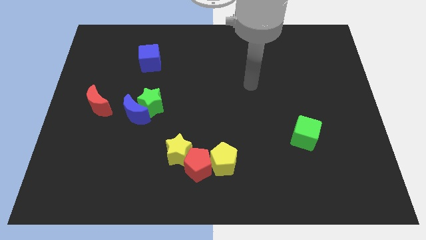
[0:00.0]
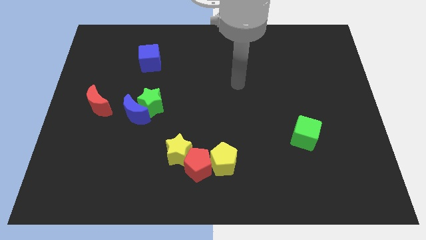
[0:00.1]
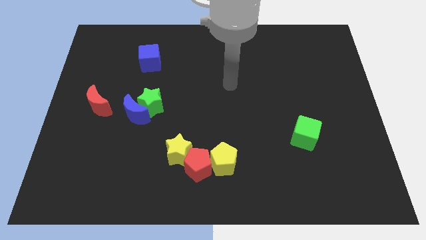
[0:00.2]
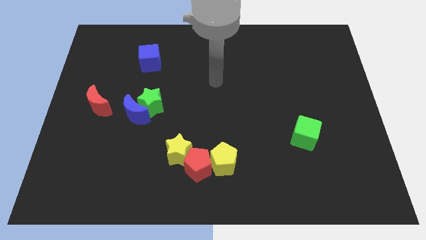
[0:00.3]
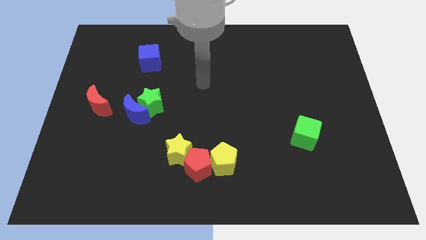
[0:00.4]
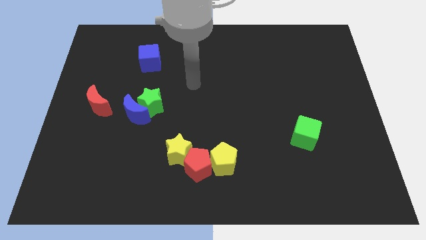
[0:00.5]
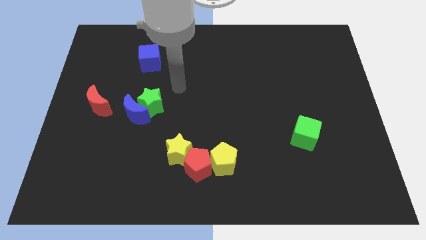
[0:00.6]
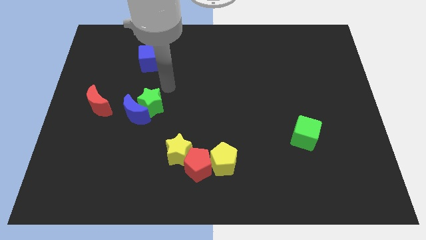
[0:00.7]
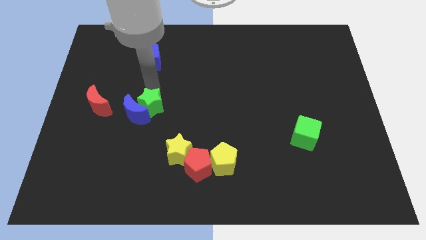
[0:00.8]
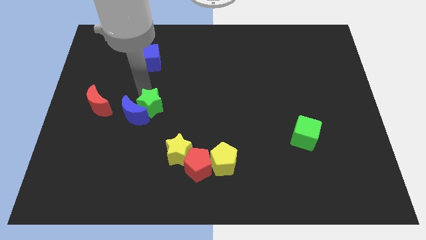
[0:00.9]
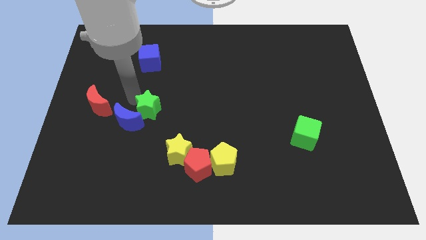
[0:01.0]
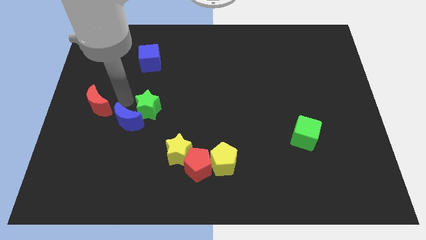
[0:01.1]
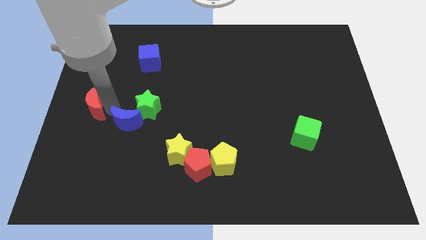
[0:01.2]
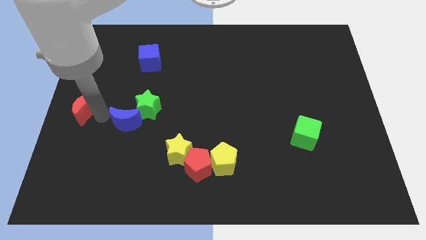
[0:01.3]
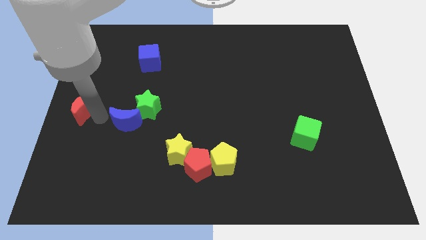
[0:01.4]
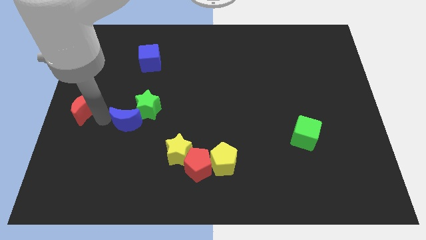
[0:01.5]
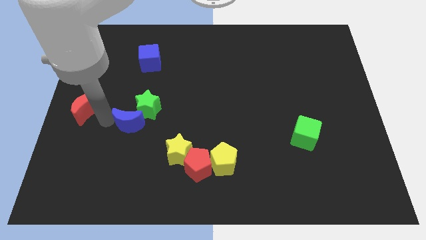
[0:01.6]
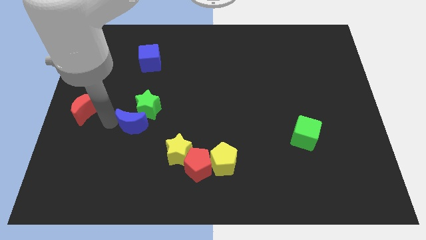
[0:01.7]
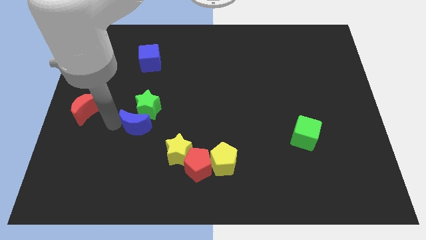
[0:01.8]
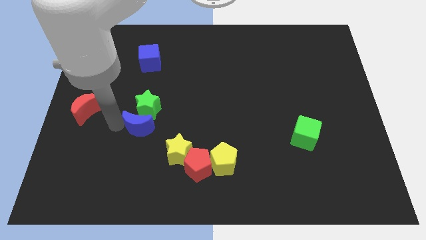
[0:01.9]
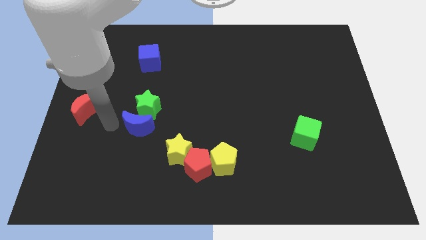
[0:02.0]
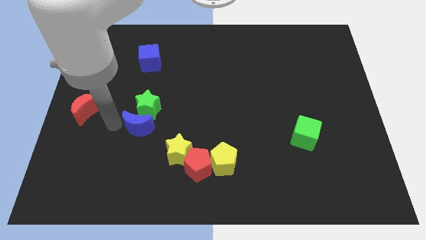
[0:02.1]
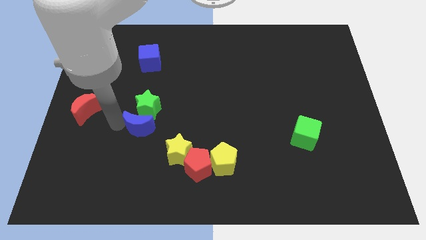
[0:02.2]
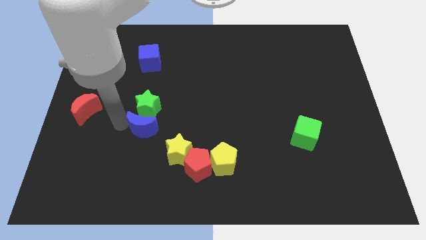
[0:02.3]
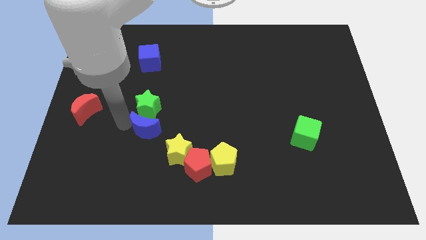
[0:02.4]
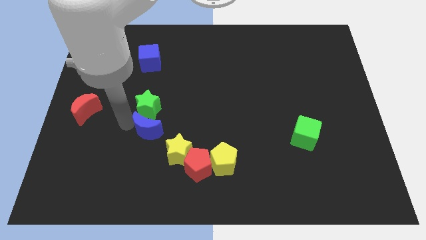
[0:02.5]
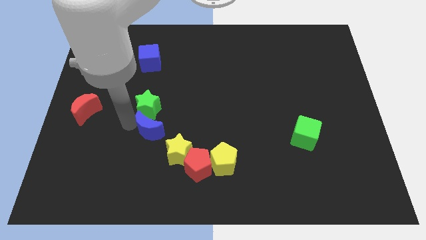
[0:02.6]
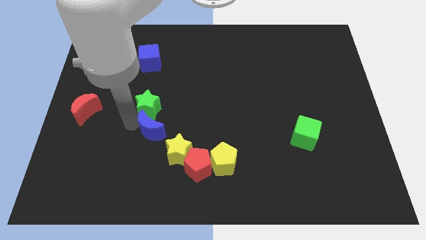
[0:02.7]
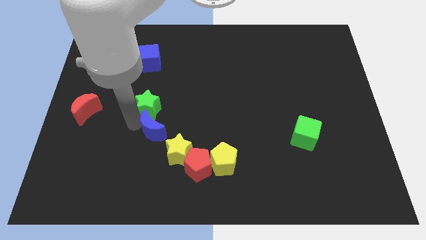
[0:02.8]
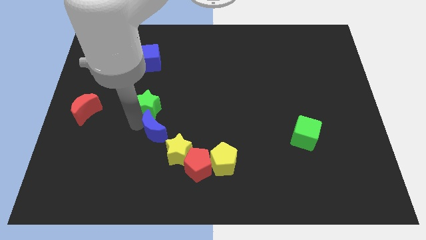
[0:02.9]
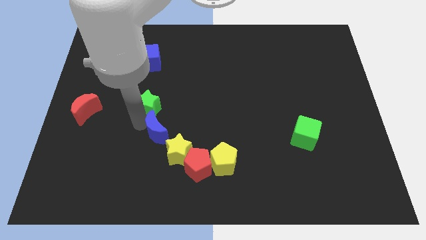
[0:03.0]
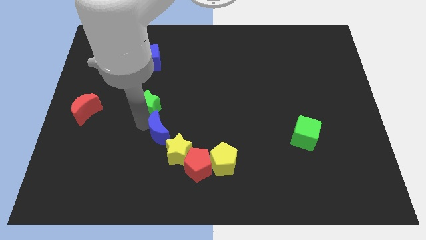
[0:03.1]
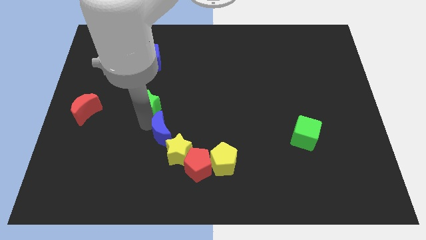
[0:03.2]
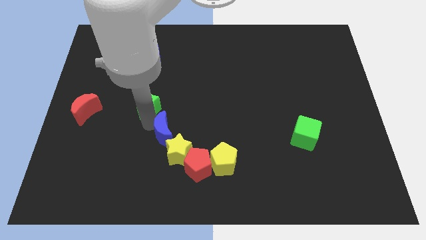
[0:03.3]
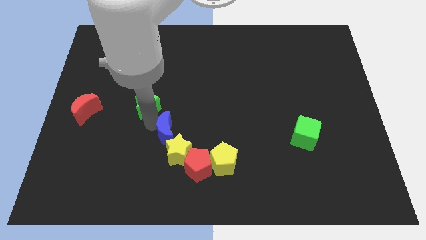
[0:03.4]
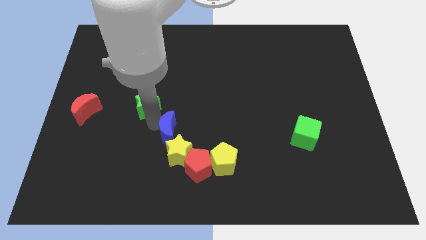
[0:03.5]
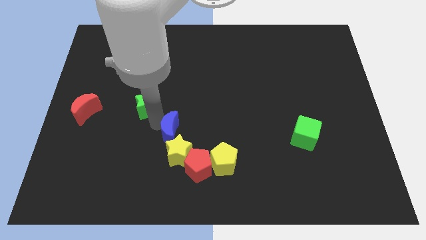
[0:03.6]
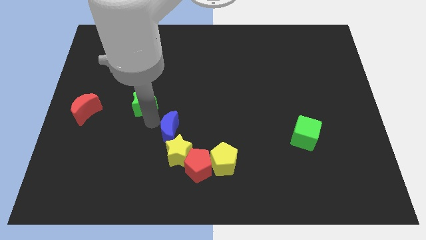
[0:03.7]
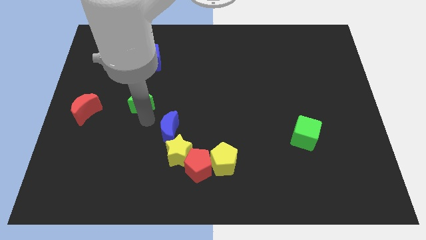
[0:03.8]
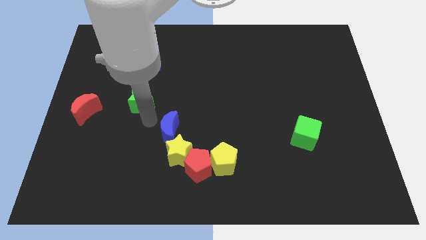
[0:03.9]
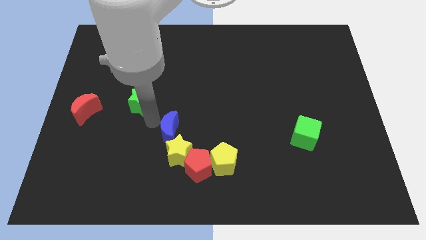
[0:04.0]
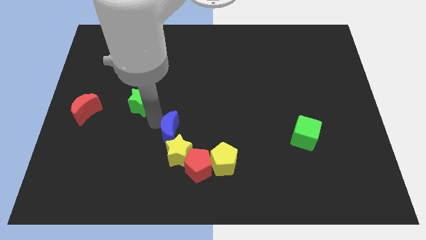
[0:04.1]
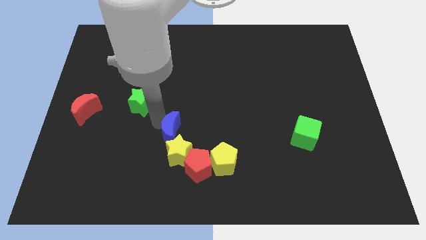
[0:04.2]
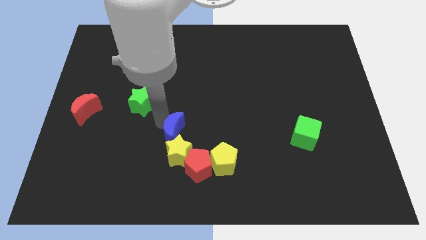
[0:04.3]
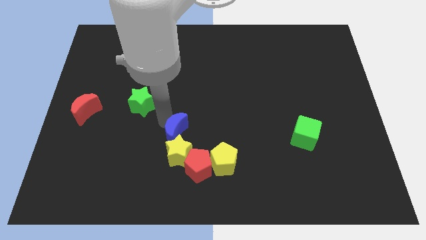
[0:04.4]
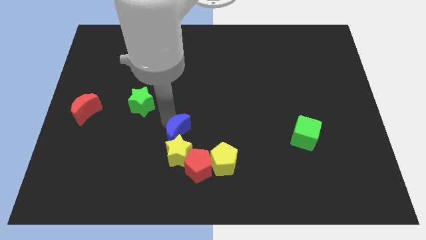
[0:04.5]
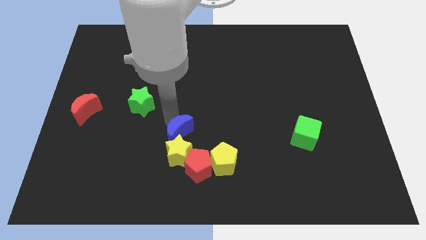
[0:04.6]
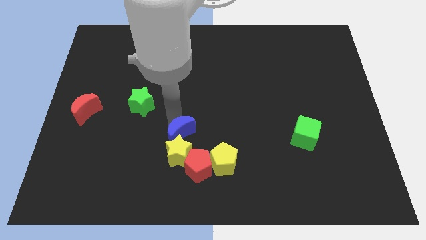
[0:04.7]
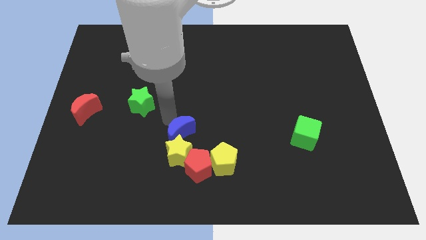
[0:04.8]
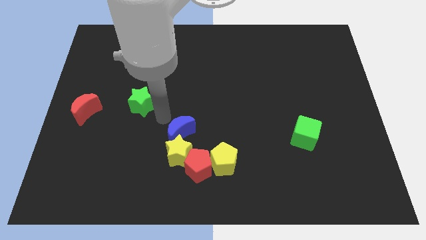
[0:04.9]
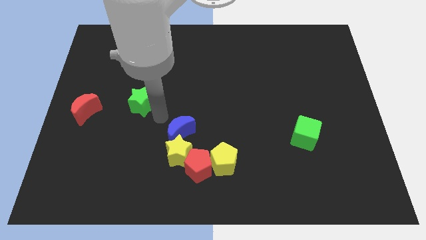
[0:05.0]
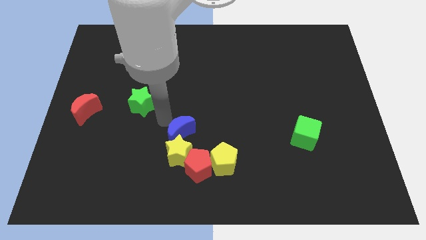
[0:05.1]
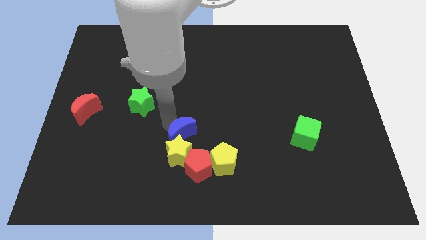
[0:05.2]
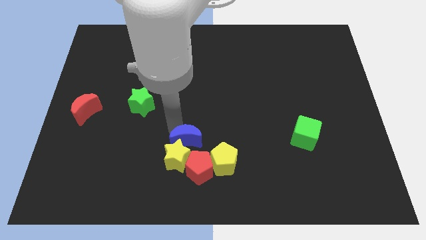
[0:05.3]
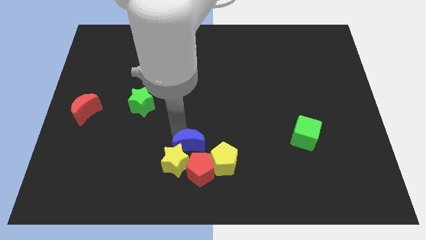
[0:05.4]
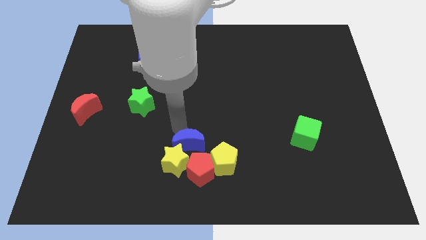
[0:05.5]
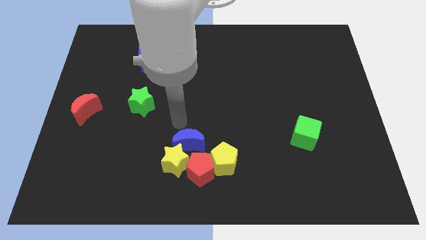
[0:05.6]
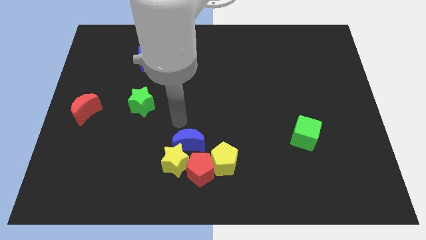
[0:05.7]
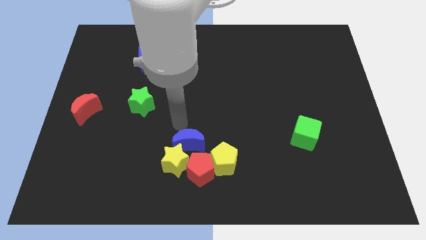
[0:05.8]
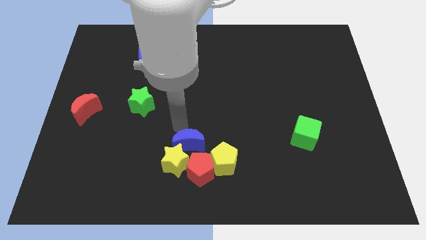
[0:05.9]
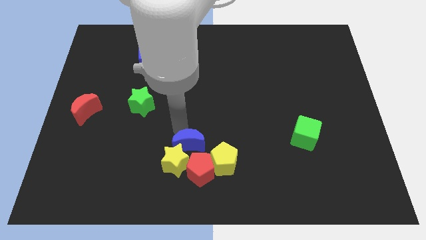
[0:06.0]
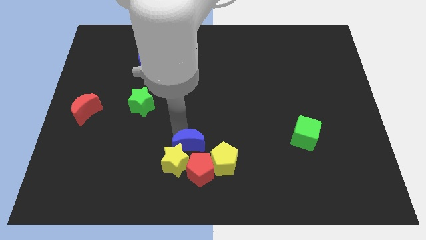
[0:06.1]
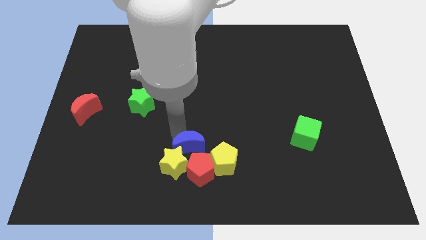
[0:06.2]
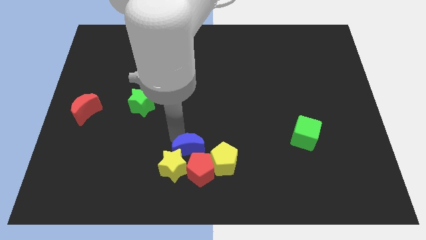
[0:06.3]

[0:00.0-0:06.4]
slide the blue moon towards the red pentagon

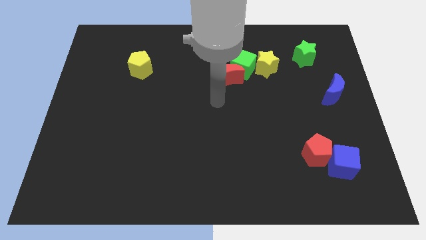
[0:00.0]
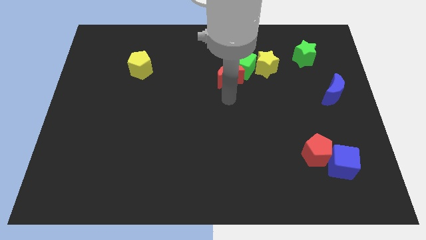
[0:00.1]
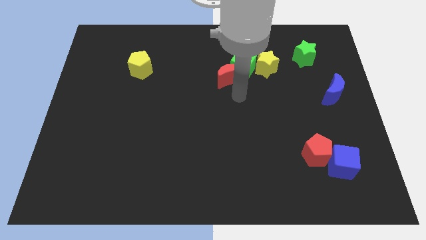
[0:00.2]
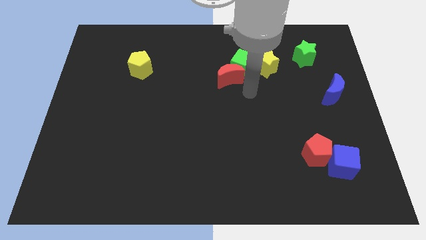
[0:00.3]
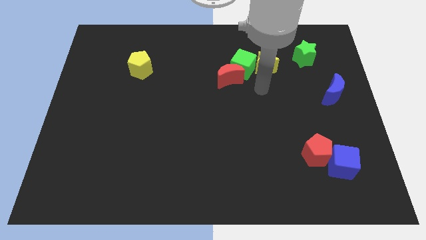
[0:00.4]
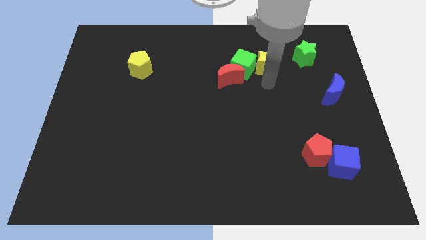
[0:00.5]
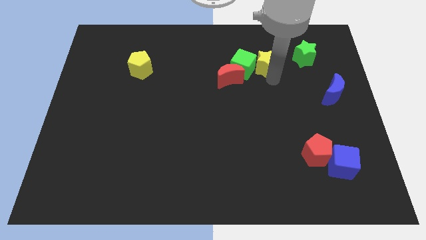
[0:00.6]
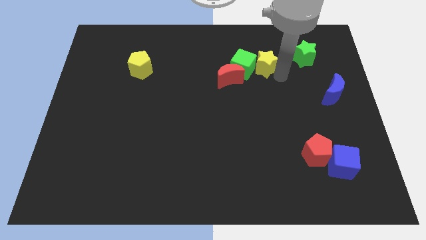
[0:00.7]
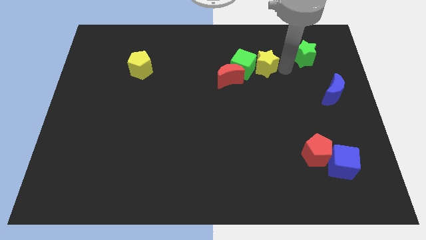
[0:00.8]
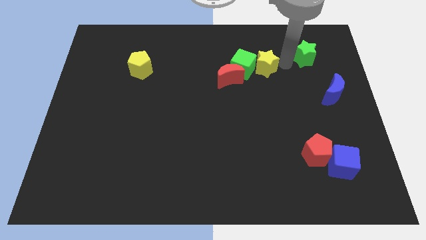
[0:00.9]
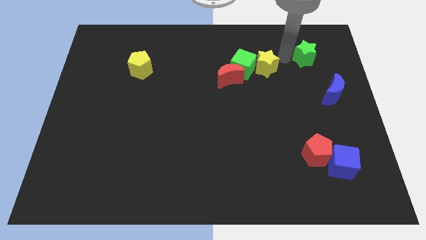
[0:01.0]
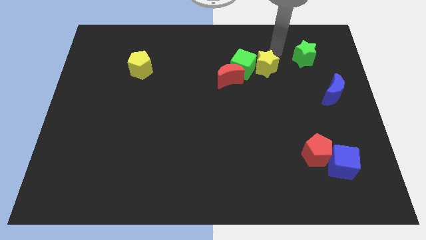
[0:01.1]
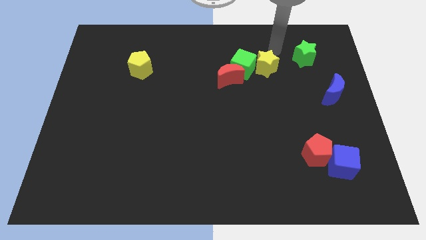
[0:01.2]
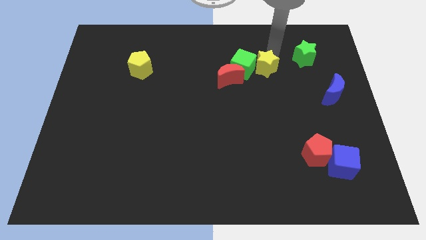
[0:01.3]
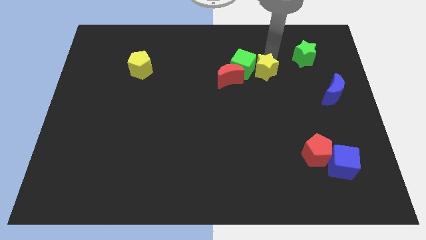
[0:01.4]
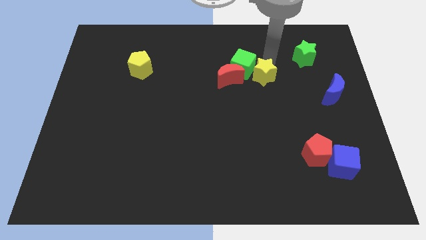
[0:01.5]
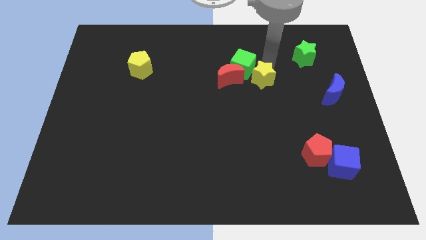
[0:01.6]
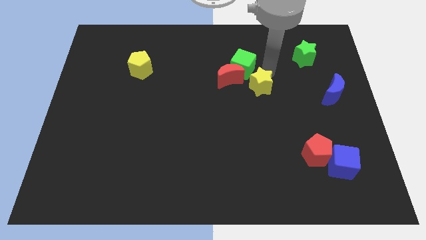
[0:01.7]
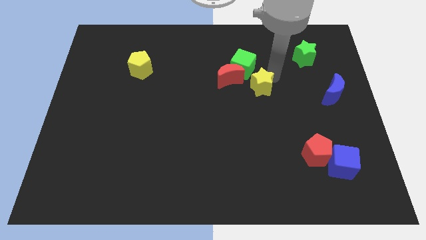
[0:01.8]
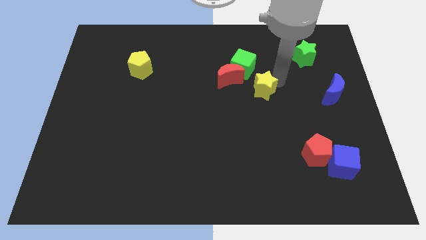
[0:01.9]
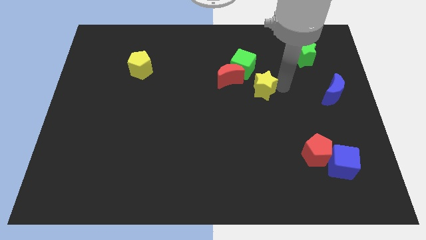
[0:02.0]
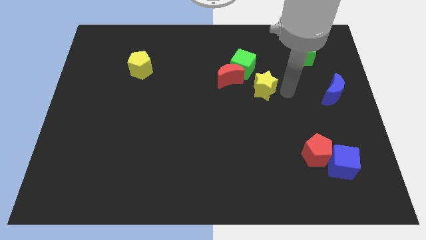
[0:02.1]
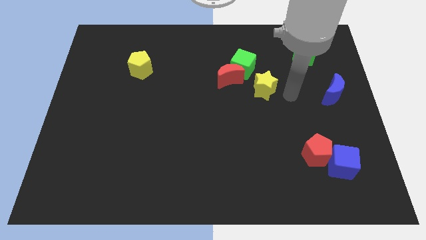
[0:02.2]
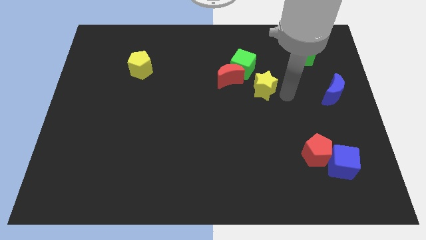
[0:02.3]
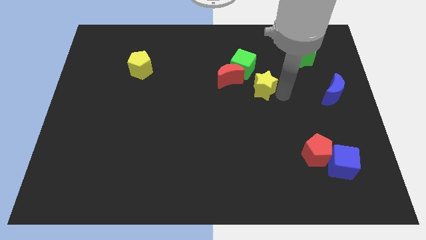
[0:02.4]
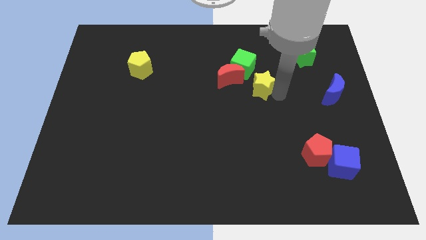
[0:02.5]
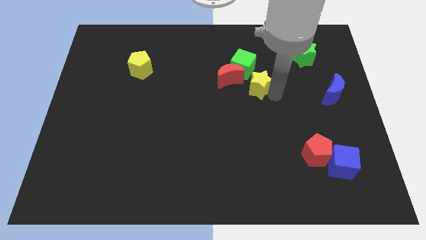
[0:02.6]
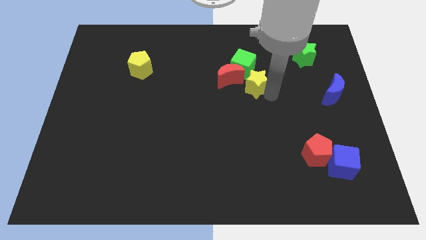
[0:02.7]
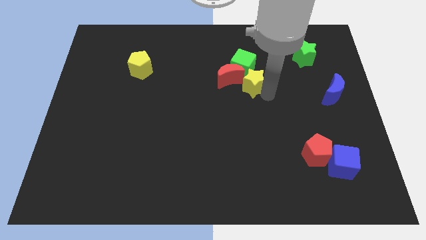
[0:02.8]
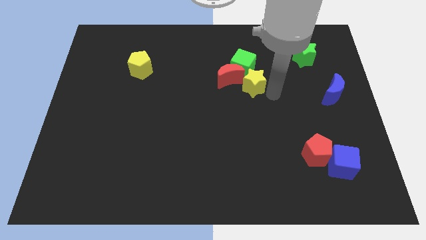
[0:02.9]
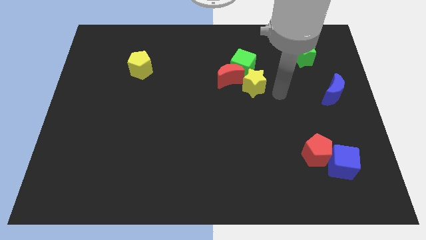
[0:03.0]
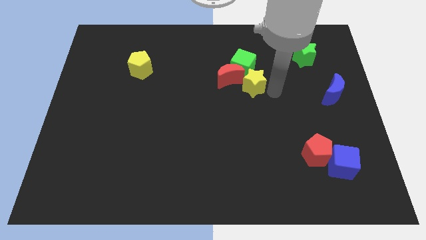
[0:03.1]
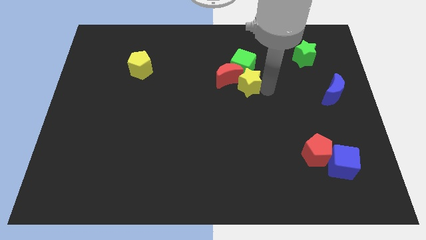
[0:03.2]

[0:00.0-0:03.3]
move the yellow star close to the red moon
